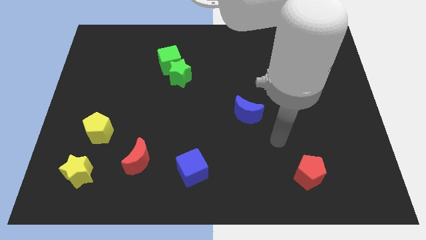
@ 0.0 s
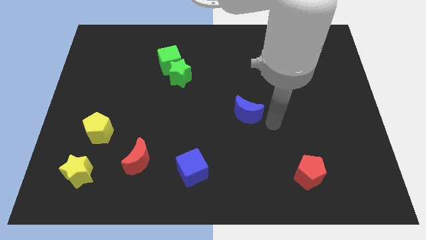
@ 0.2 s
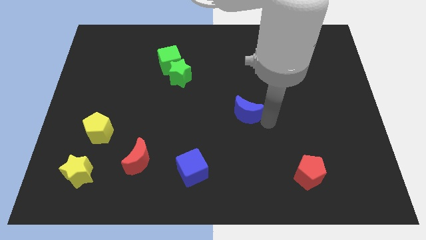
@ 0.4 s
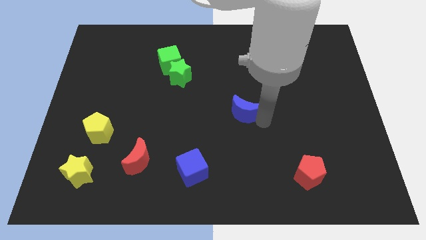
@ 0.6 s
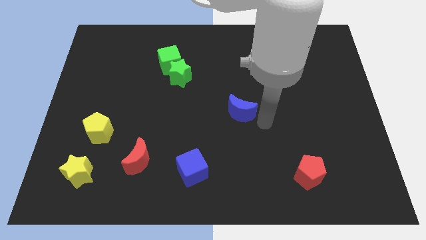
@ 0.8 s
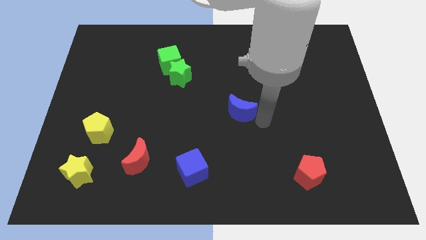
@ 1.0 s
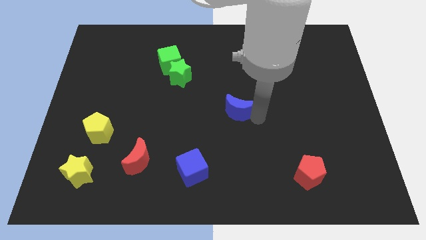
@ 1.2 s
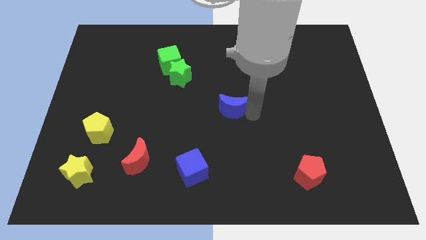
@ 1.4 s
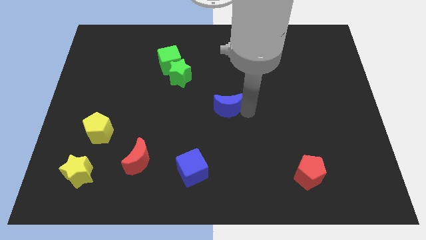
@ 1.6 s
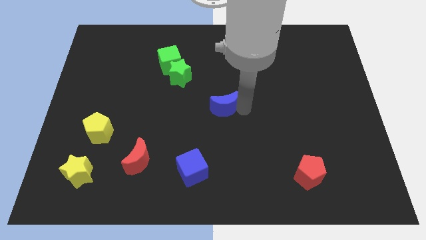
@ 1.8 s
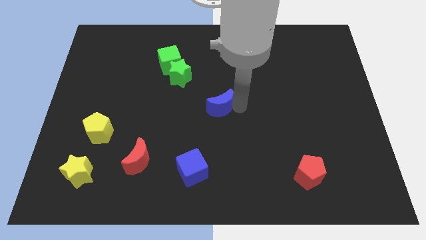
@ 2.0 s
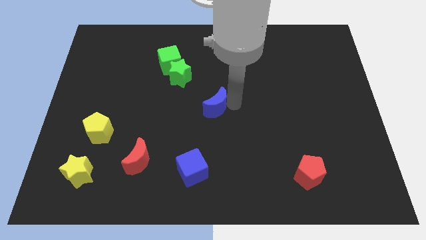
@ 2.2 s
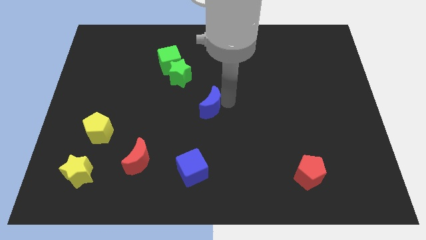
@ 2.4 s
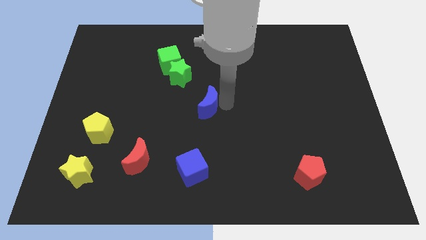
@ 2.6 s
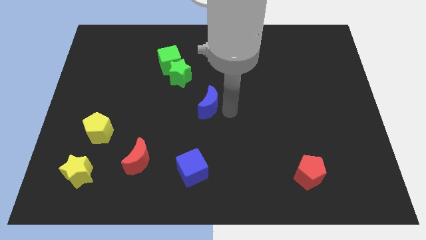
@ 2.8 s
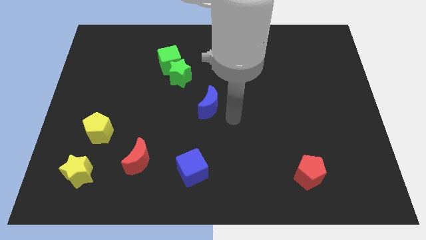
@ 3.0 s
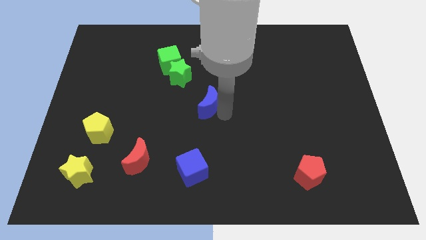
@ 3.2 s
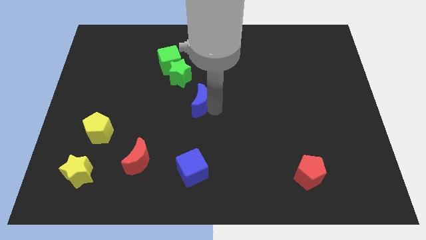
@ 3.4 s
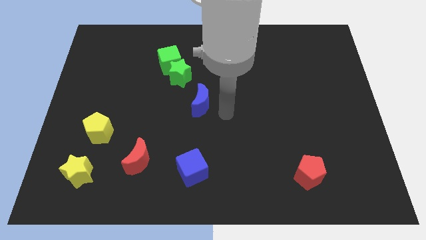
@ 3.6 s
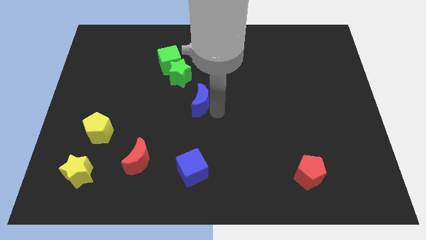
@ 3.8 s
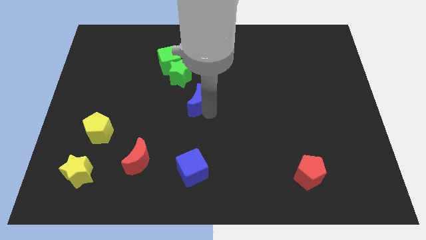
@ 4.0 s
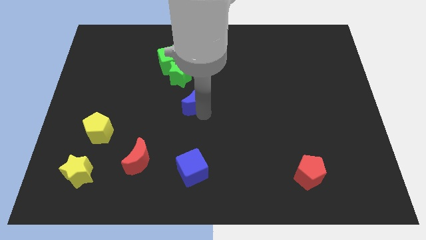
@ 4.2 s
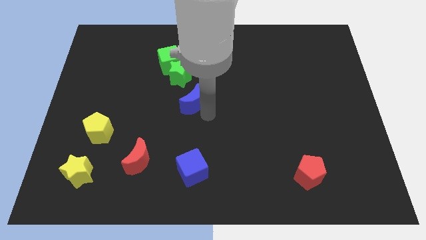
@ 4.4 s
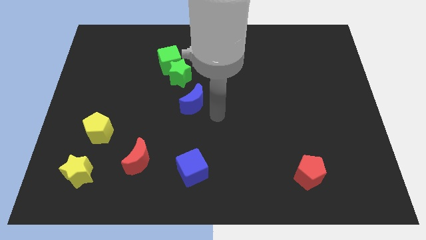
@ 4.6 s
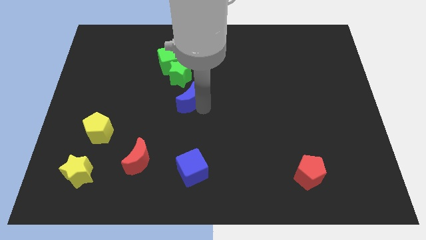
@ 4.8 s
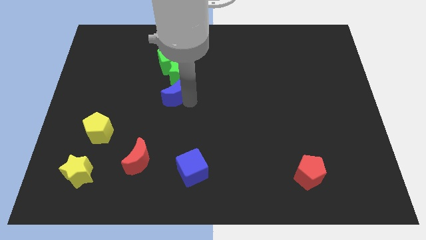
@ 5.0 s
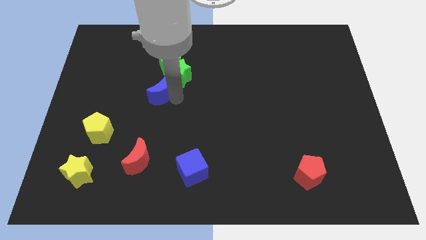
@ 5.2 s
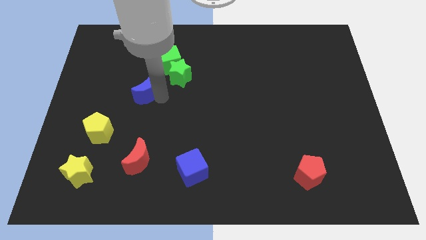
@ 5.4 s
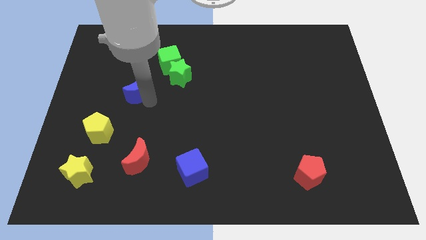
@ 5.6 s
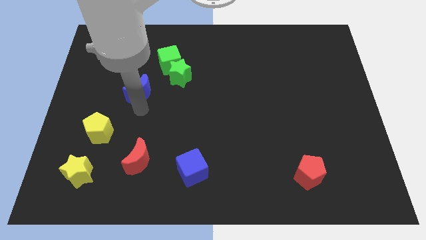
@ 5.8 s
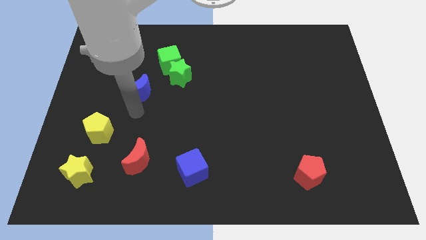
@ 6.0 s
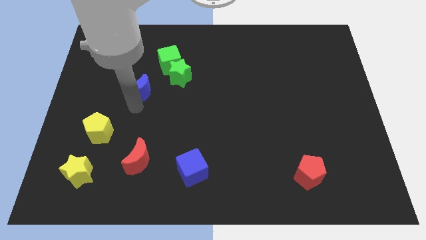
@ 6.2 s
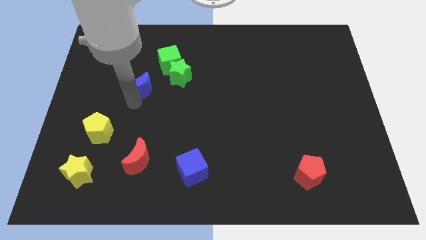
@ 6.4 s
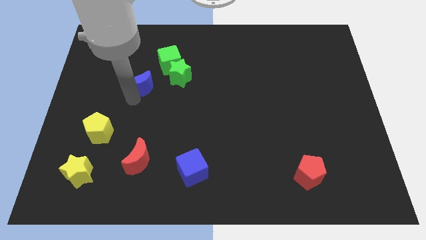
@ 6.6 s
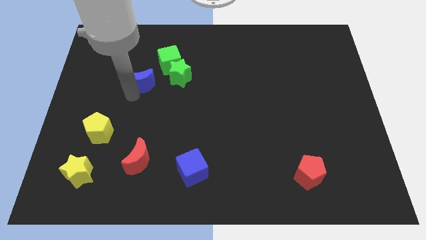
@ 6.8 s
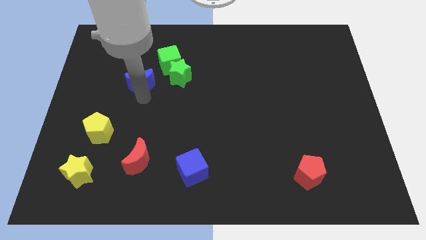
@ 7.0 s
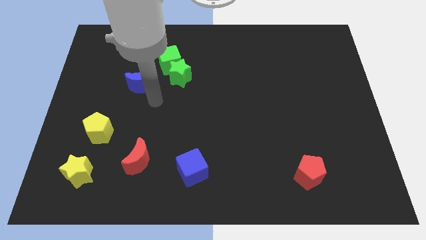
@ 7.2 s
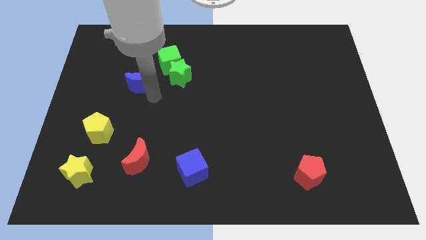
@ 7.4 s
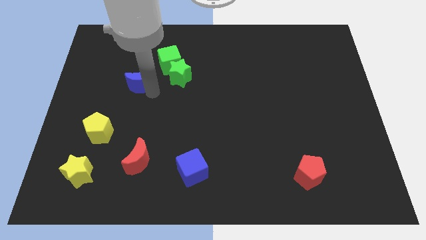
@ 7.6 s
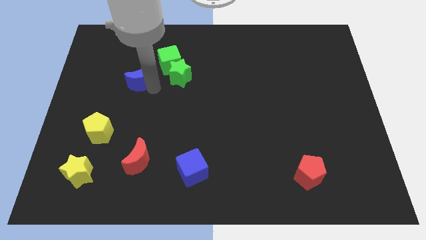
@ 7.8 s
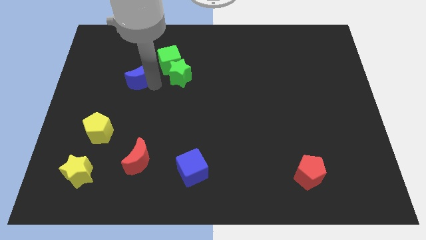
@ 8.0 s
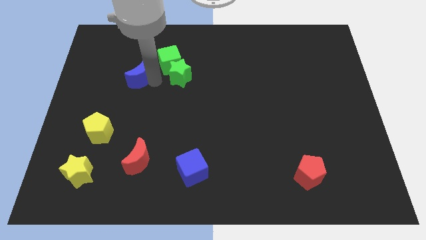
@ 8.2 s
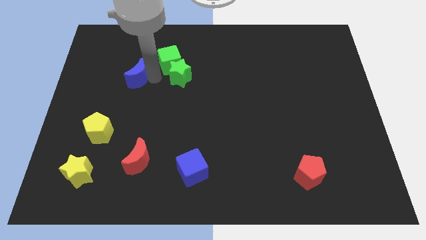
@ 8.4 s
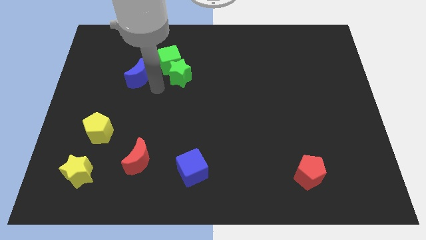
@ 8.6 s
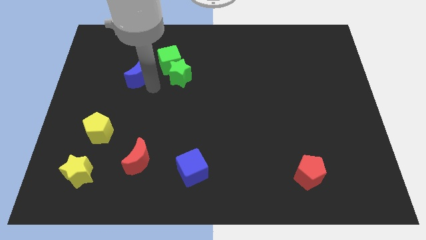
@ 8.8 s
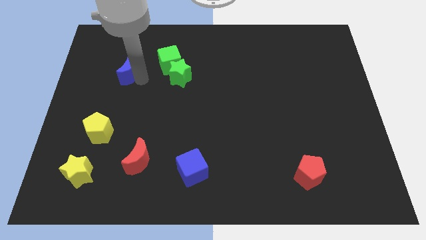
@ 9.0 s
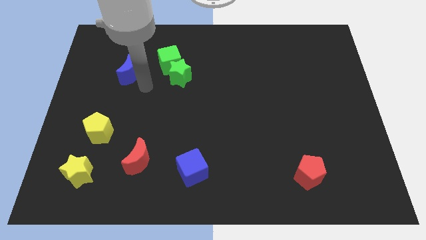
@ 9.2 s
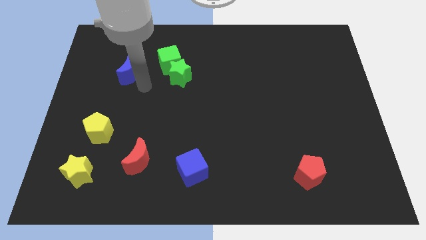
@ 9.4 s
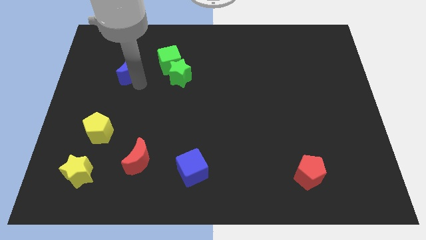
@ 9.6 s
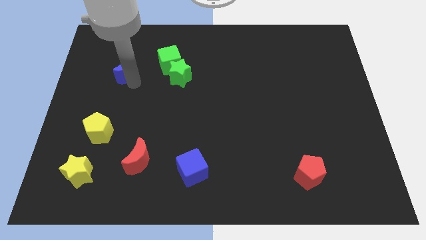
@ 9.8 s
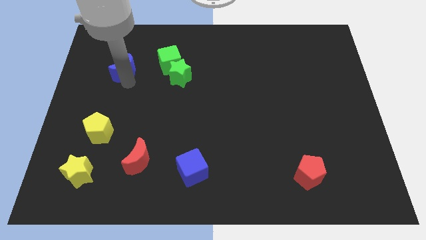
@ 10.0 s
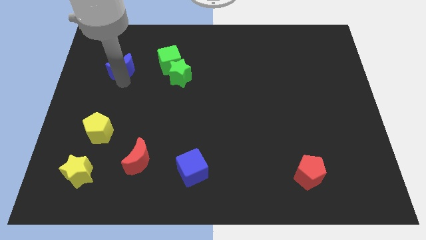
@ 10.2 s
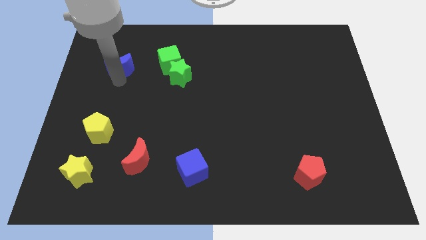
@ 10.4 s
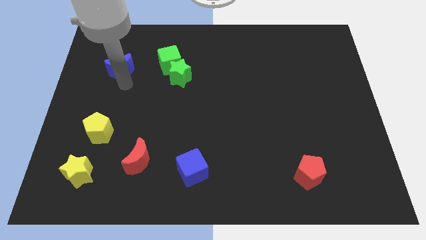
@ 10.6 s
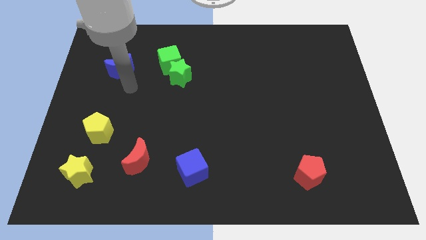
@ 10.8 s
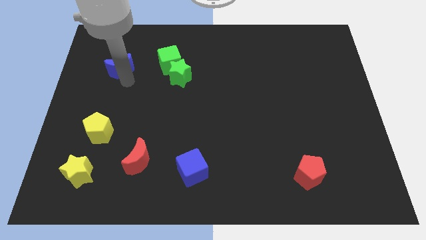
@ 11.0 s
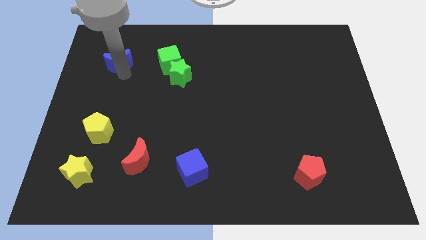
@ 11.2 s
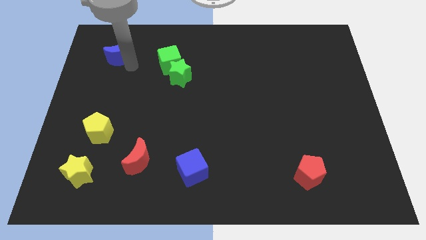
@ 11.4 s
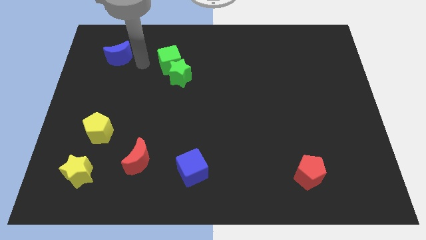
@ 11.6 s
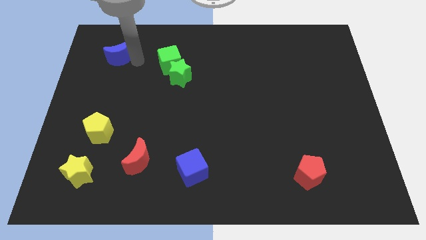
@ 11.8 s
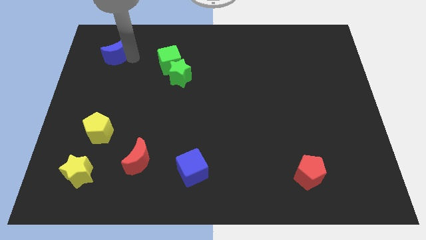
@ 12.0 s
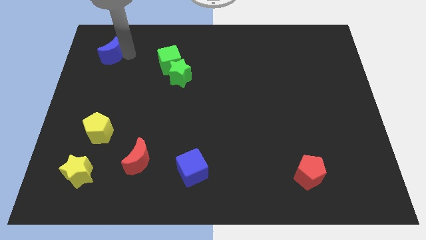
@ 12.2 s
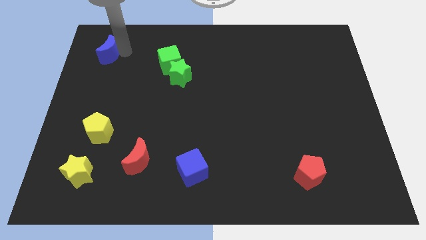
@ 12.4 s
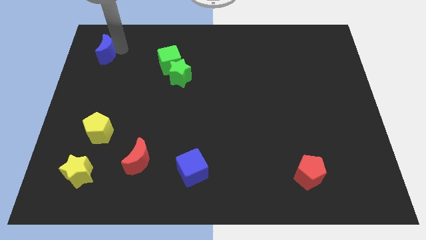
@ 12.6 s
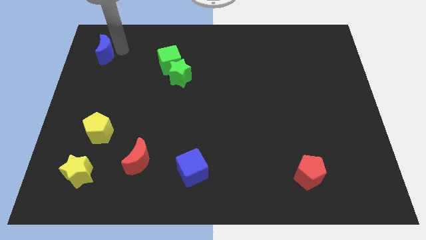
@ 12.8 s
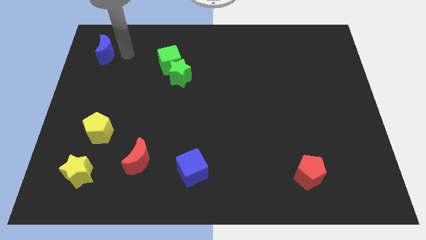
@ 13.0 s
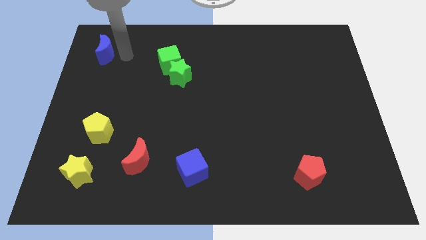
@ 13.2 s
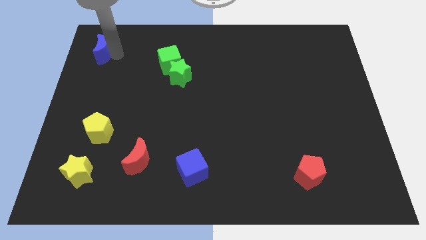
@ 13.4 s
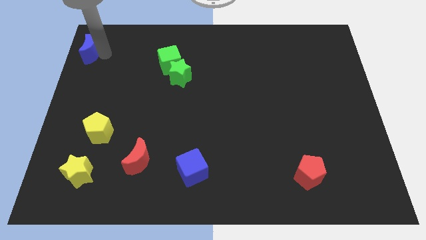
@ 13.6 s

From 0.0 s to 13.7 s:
slide the blue moon to the top left
